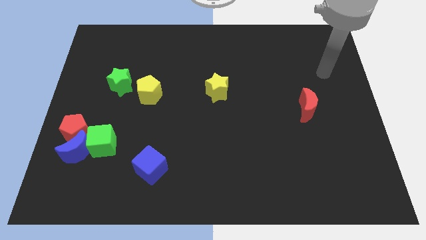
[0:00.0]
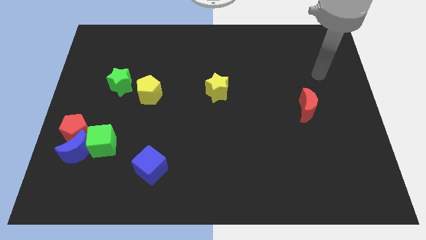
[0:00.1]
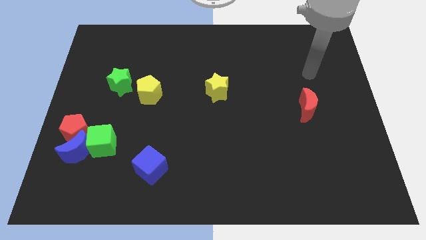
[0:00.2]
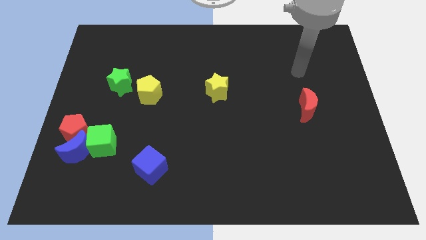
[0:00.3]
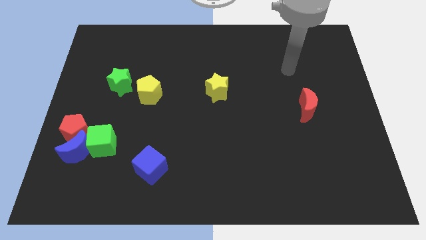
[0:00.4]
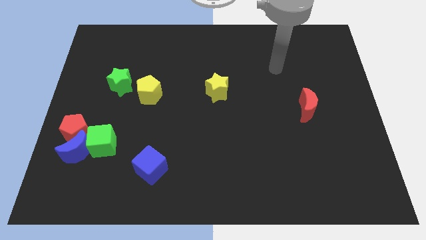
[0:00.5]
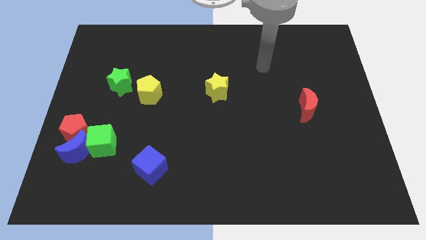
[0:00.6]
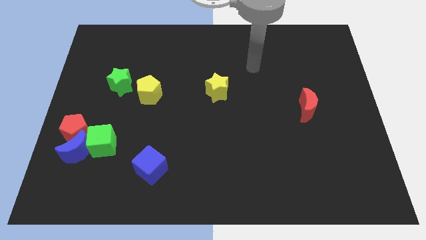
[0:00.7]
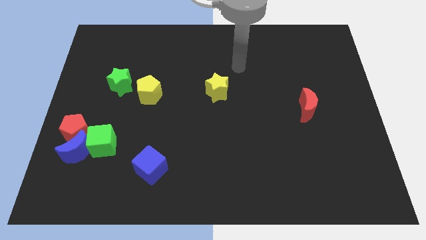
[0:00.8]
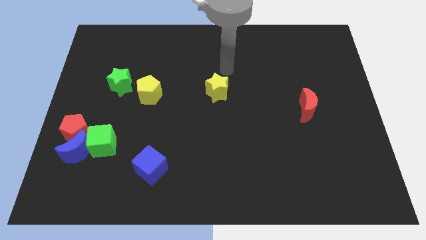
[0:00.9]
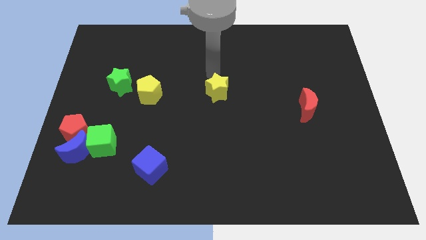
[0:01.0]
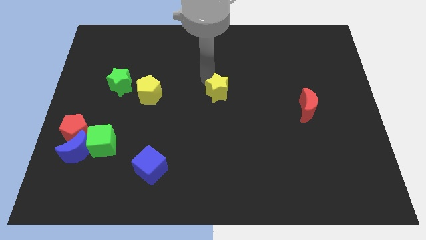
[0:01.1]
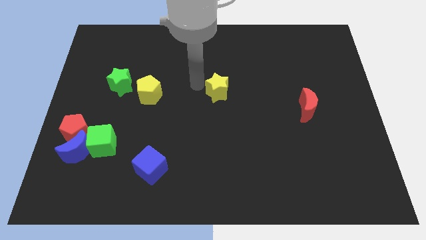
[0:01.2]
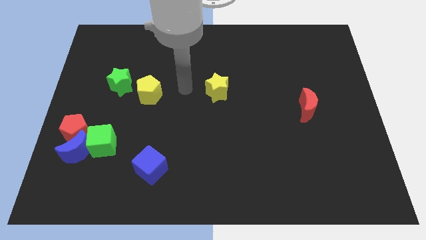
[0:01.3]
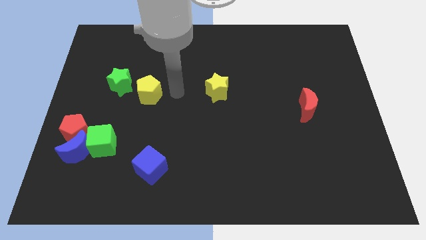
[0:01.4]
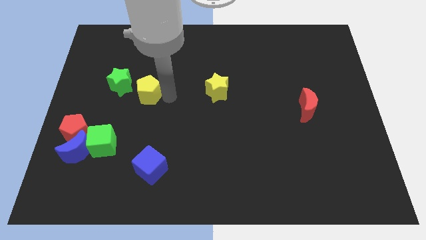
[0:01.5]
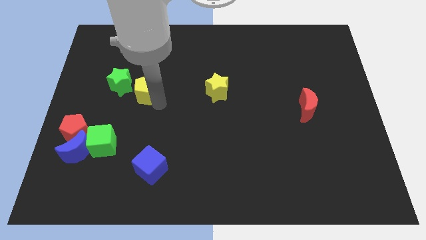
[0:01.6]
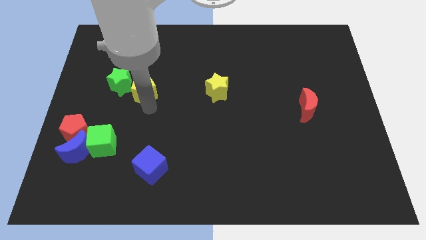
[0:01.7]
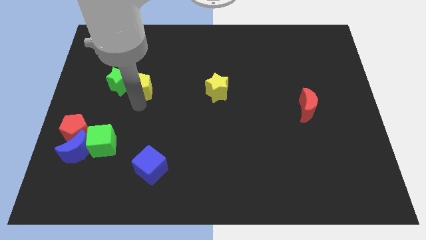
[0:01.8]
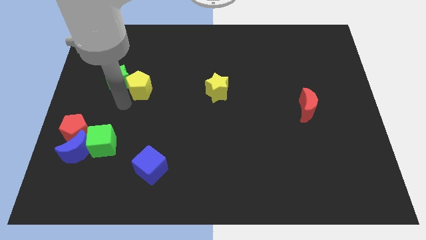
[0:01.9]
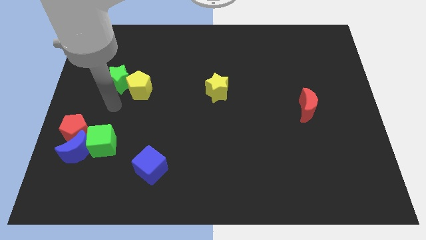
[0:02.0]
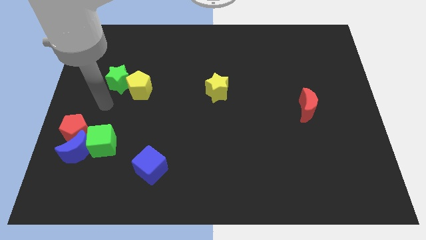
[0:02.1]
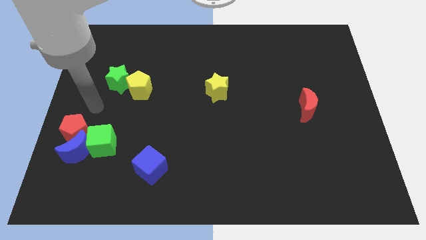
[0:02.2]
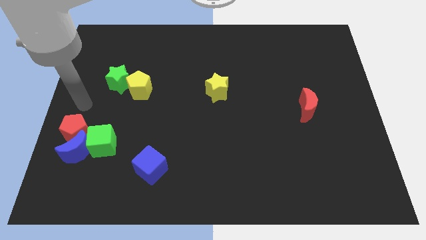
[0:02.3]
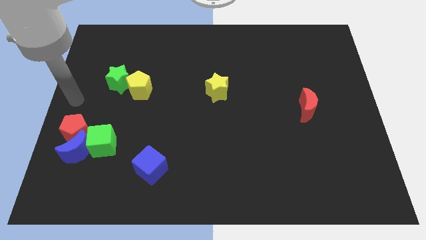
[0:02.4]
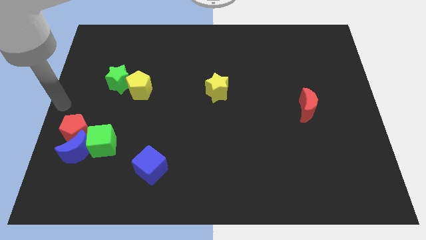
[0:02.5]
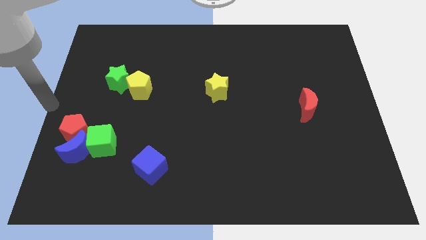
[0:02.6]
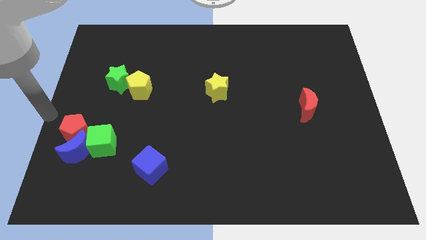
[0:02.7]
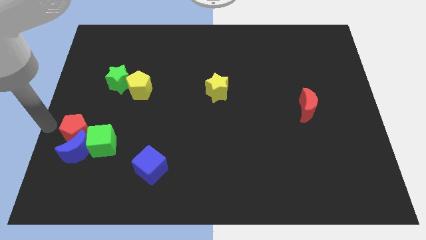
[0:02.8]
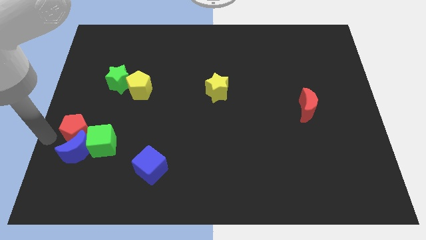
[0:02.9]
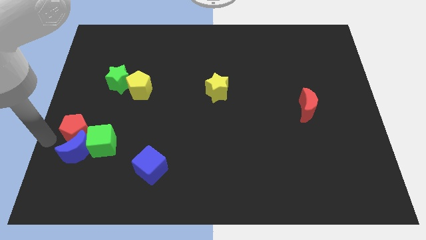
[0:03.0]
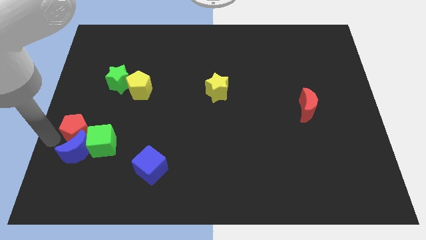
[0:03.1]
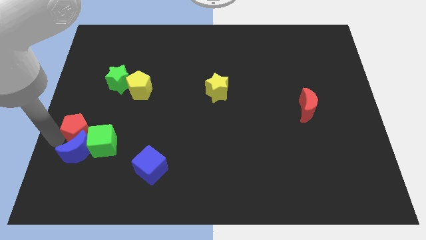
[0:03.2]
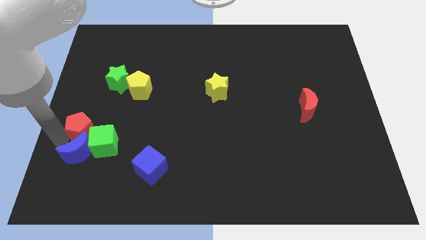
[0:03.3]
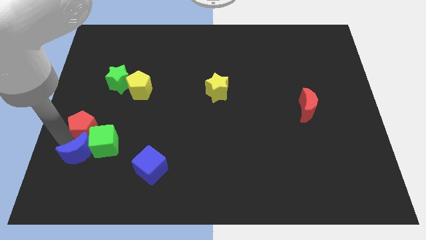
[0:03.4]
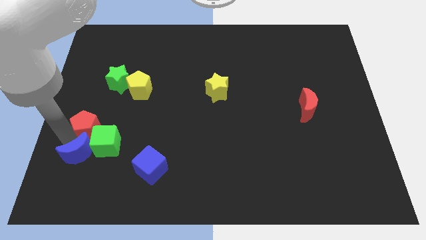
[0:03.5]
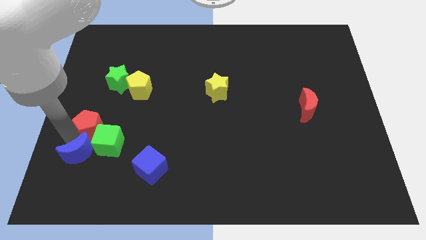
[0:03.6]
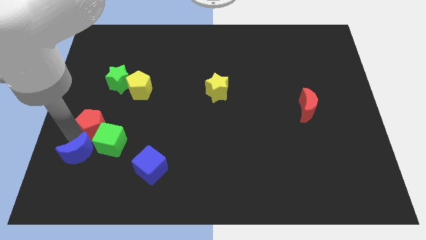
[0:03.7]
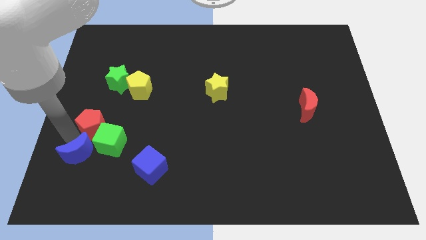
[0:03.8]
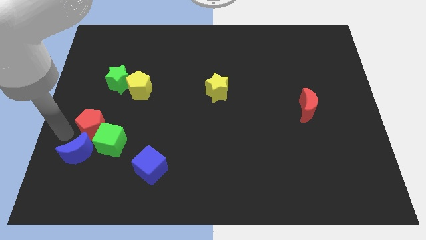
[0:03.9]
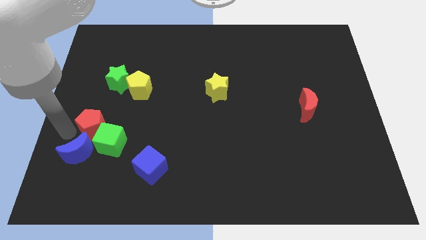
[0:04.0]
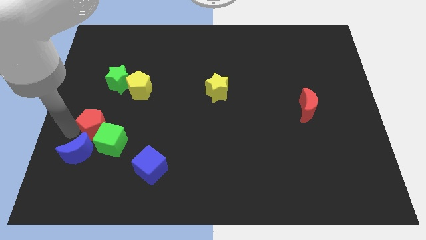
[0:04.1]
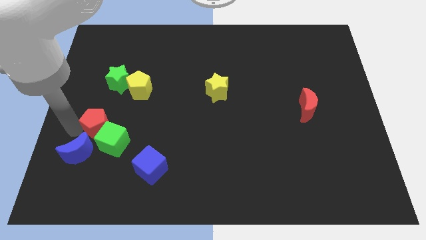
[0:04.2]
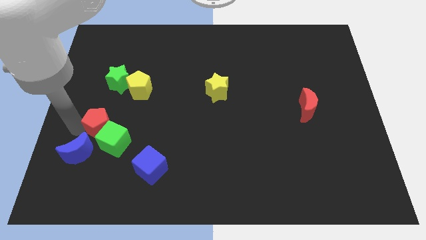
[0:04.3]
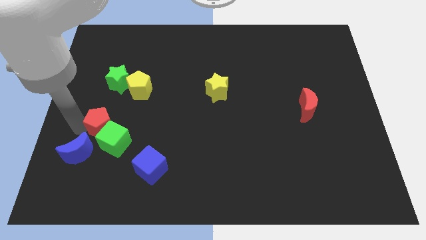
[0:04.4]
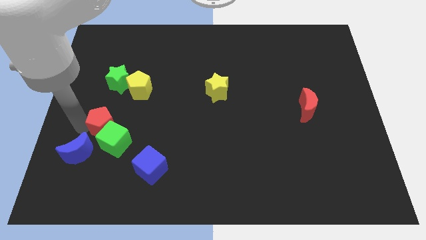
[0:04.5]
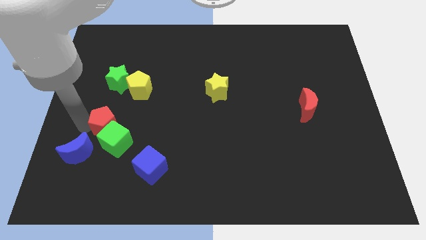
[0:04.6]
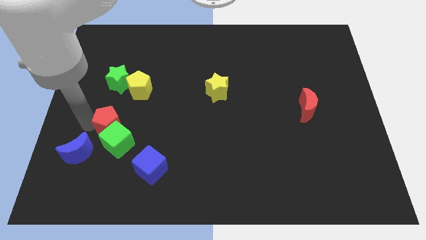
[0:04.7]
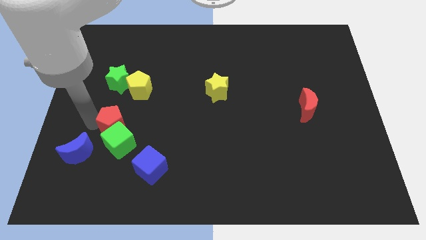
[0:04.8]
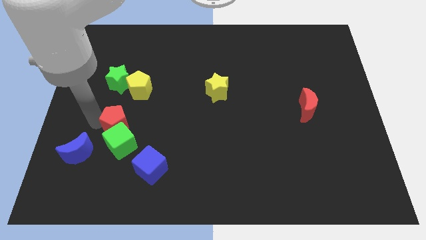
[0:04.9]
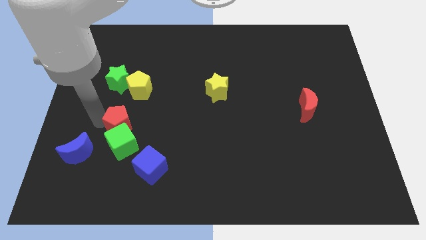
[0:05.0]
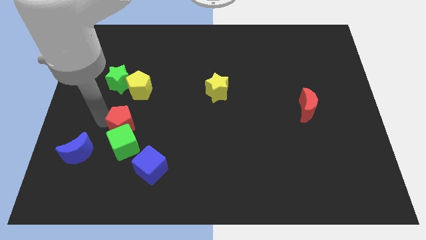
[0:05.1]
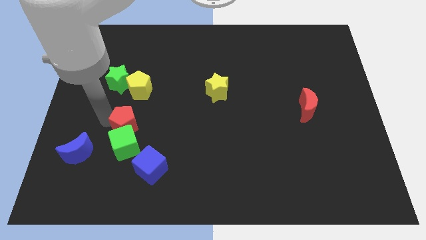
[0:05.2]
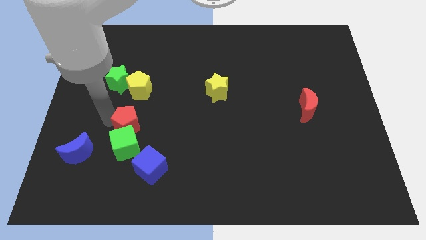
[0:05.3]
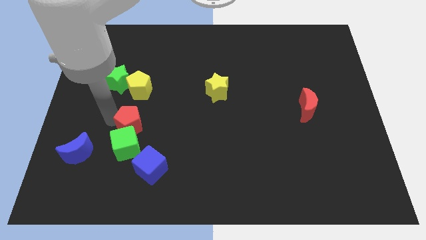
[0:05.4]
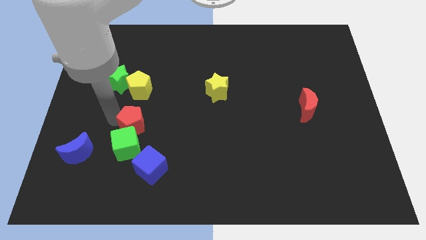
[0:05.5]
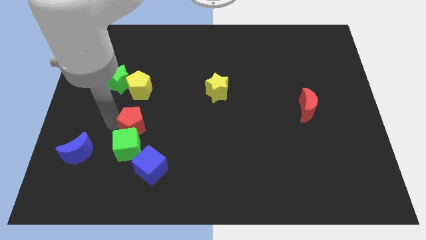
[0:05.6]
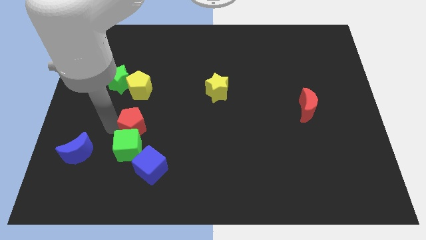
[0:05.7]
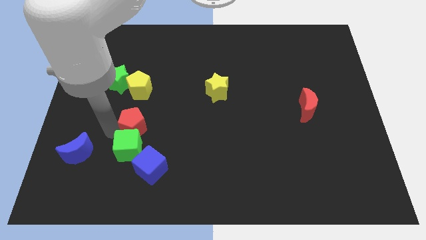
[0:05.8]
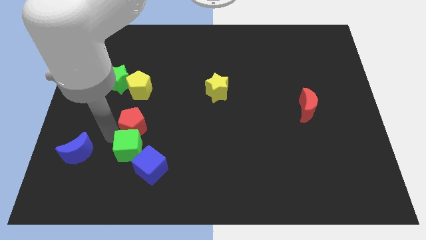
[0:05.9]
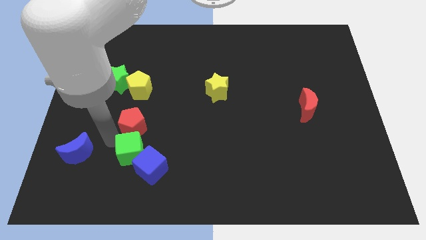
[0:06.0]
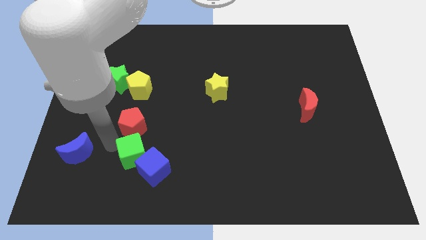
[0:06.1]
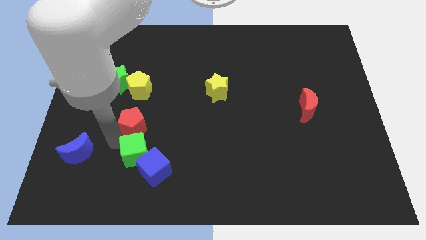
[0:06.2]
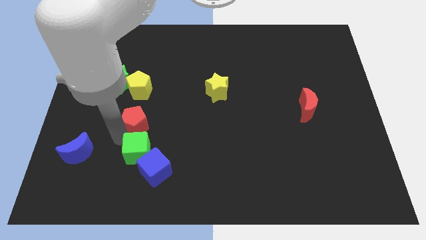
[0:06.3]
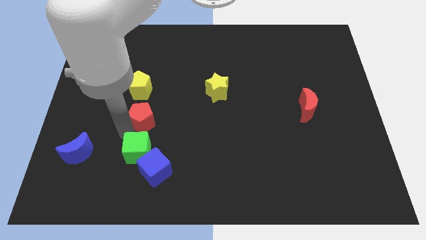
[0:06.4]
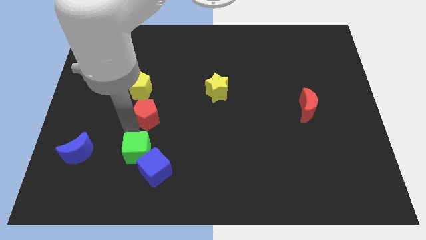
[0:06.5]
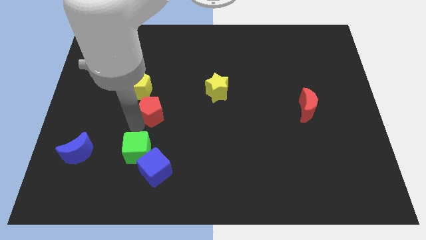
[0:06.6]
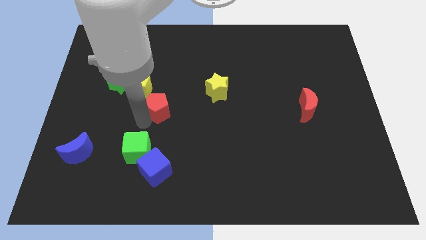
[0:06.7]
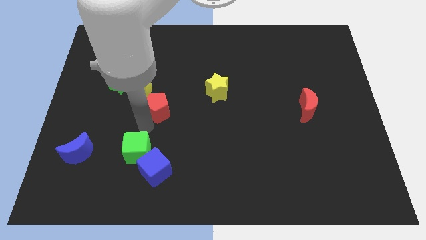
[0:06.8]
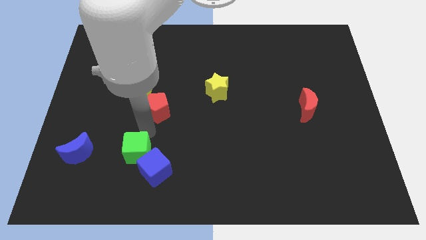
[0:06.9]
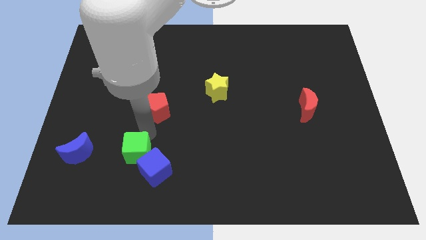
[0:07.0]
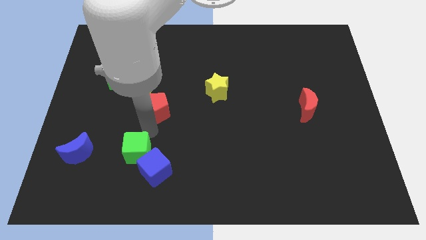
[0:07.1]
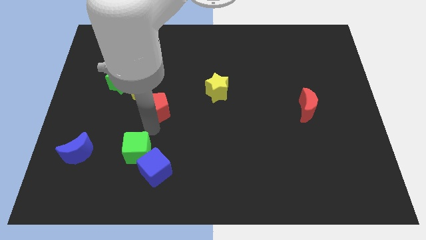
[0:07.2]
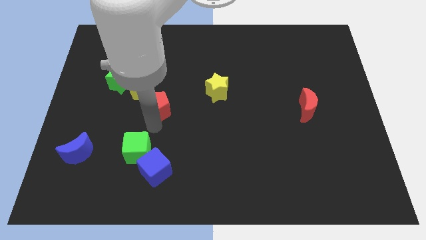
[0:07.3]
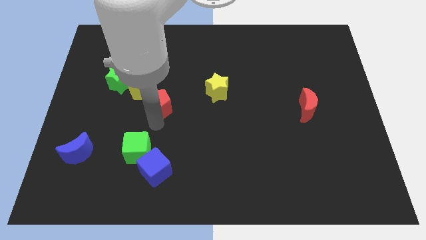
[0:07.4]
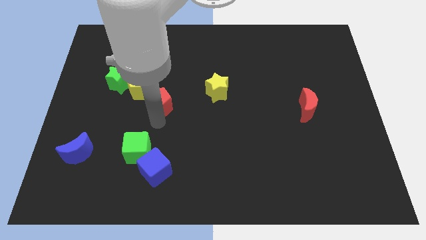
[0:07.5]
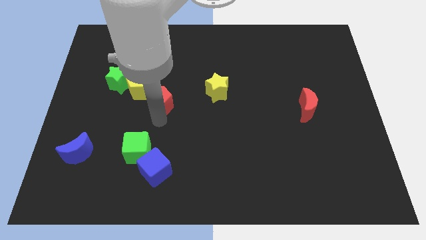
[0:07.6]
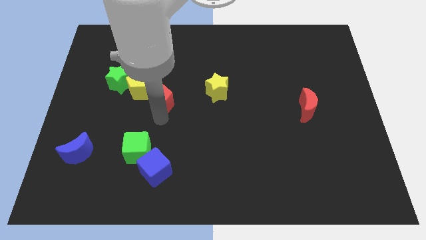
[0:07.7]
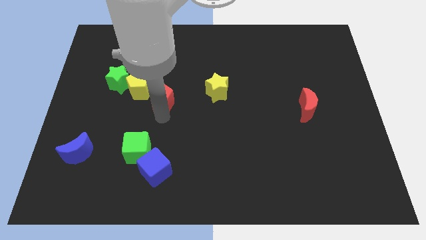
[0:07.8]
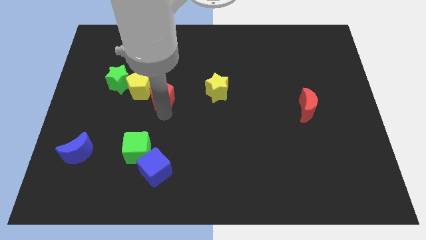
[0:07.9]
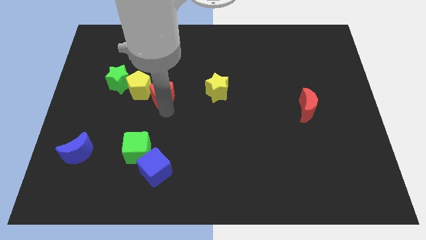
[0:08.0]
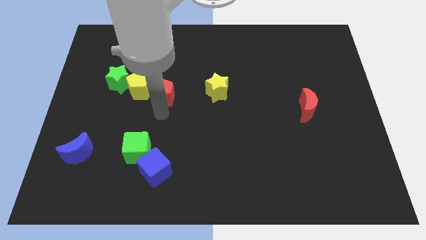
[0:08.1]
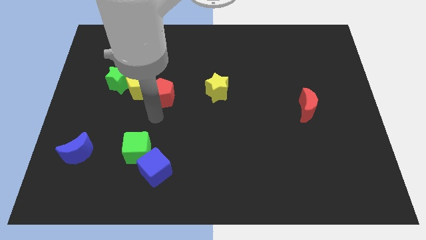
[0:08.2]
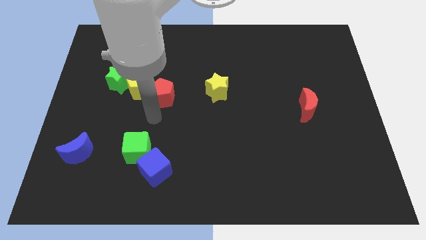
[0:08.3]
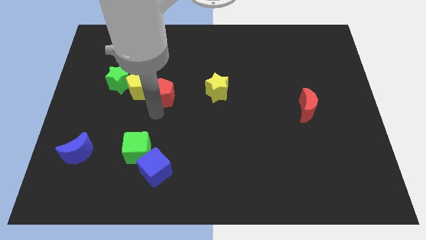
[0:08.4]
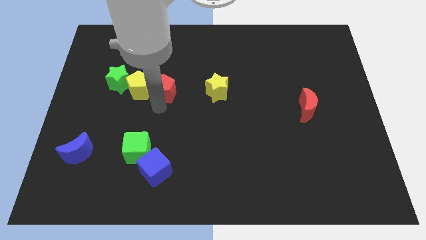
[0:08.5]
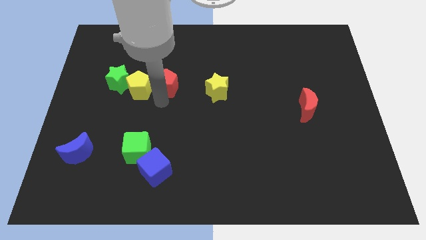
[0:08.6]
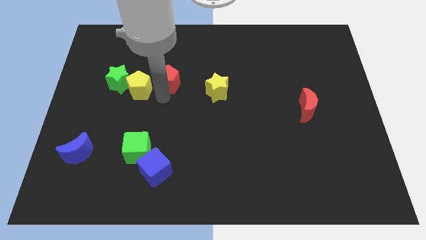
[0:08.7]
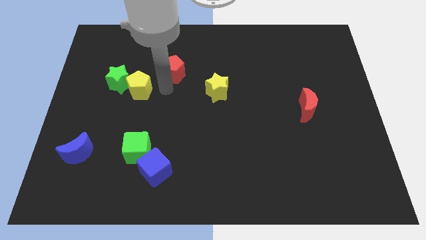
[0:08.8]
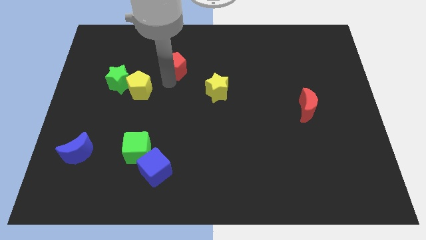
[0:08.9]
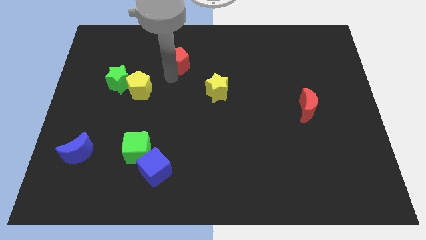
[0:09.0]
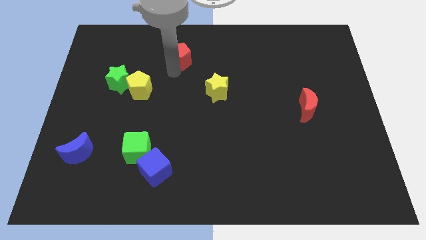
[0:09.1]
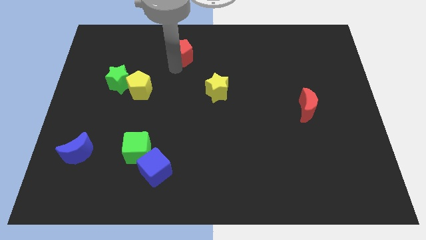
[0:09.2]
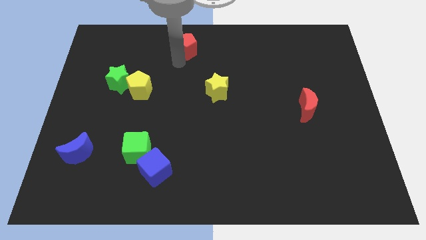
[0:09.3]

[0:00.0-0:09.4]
slide the red pentagon to the top
